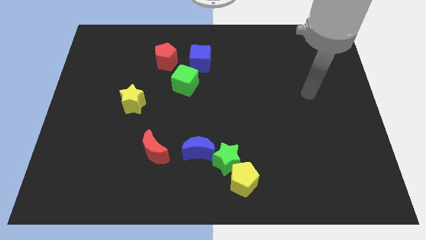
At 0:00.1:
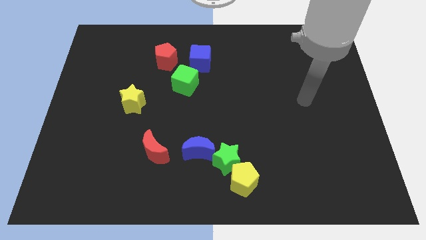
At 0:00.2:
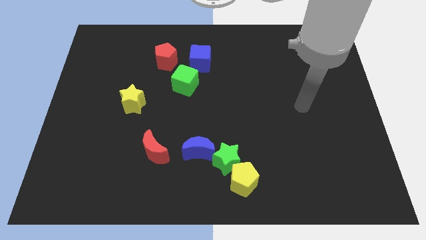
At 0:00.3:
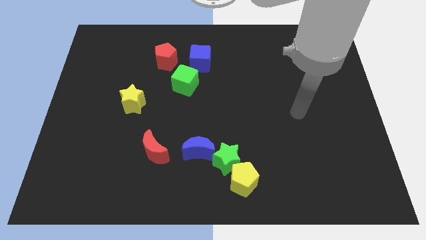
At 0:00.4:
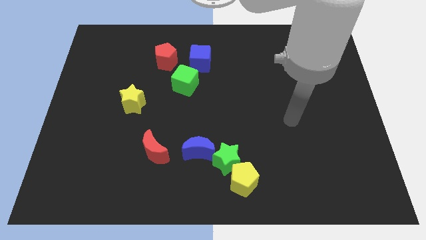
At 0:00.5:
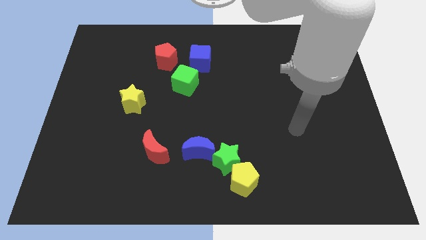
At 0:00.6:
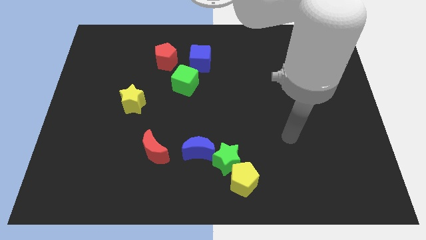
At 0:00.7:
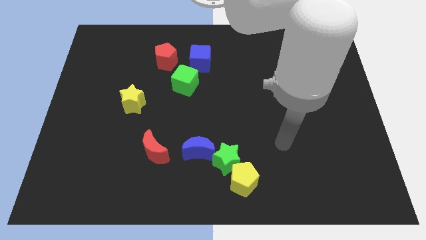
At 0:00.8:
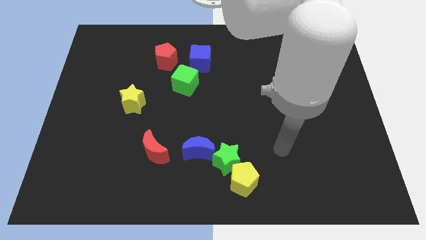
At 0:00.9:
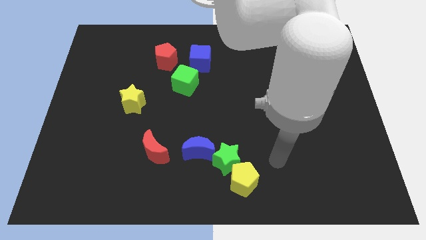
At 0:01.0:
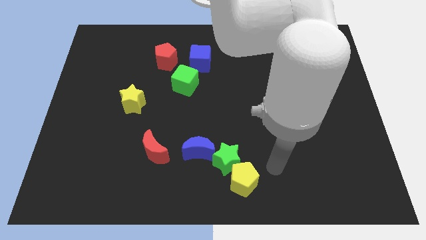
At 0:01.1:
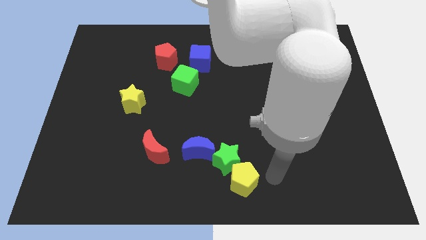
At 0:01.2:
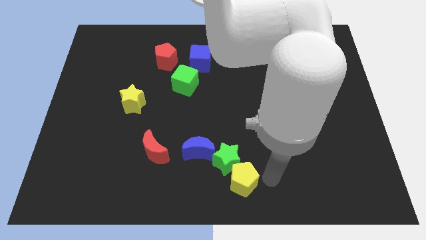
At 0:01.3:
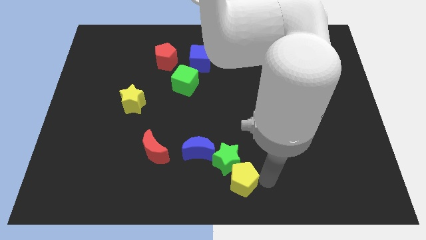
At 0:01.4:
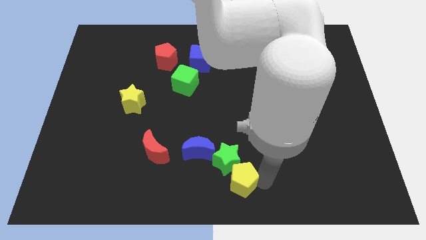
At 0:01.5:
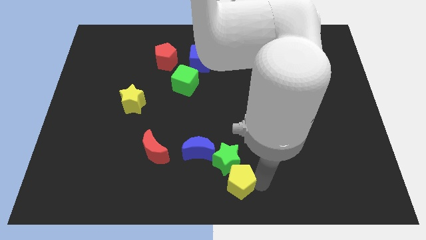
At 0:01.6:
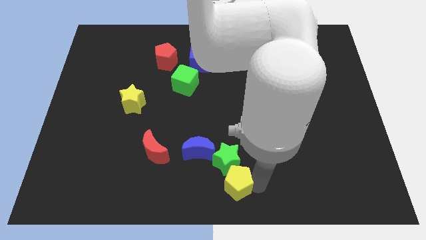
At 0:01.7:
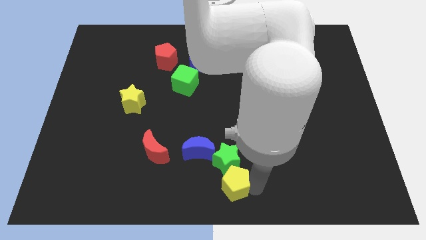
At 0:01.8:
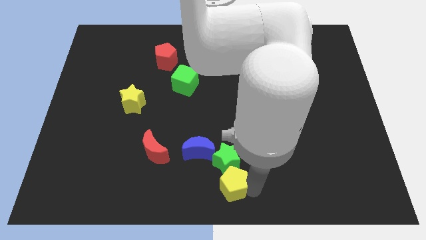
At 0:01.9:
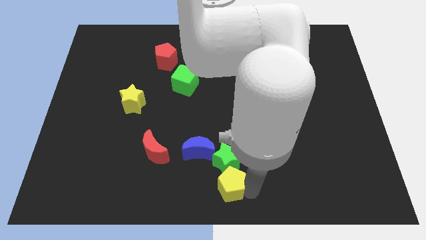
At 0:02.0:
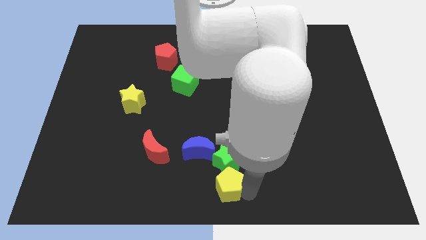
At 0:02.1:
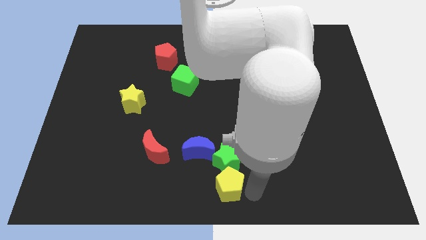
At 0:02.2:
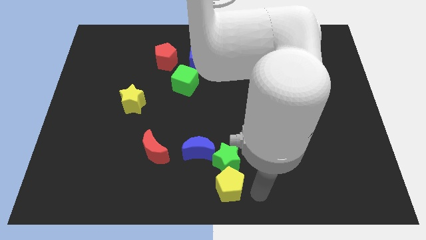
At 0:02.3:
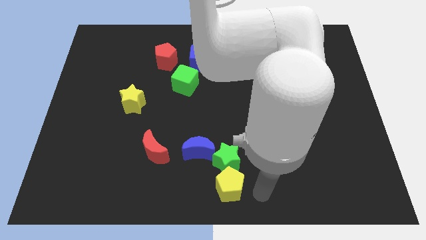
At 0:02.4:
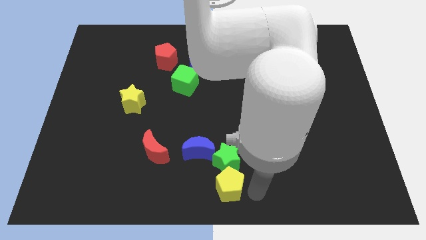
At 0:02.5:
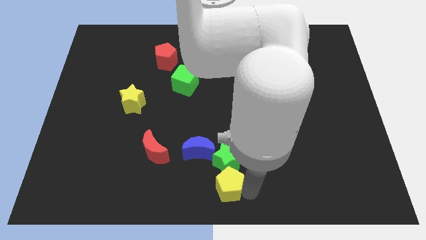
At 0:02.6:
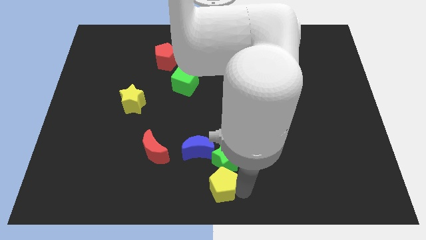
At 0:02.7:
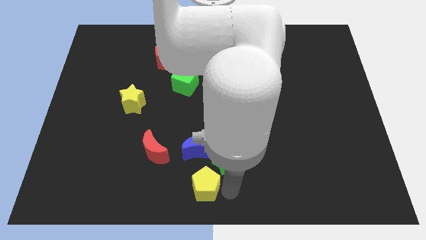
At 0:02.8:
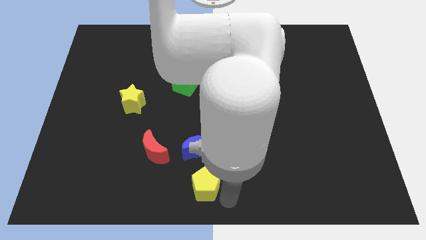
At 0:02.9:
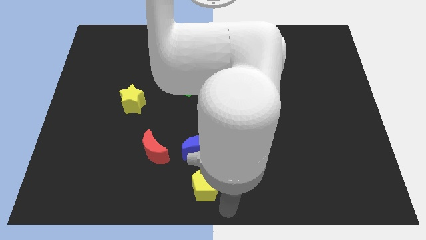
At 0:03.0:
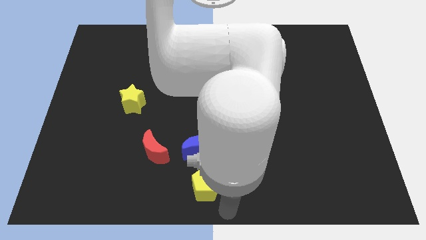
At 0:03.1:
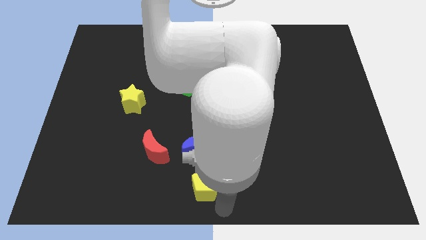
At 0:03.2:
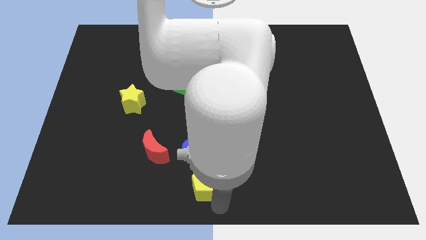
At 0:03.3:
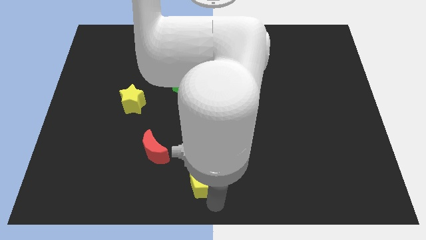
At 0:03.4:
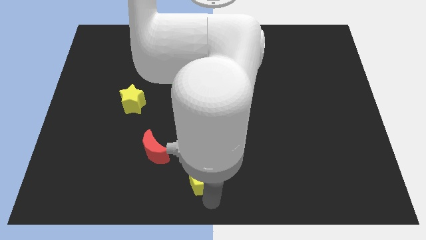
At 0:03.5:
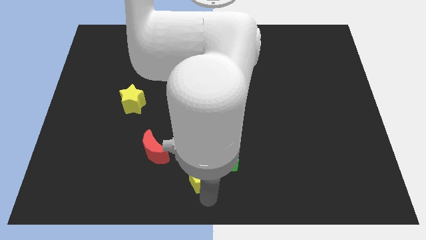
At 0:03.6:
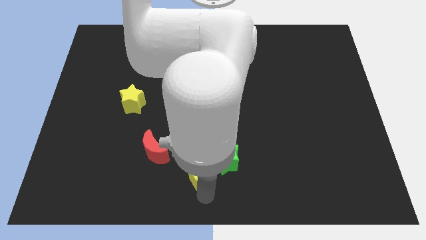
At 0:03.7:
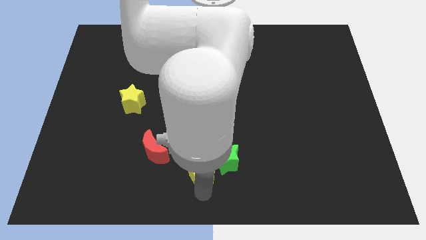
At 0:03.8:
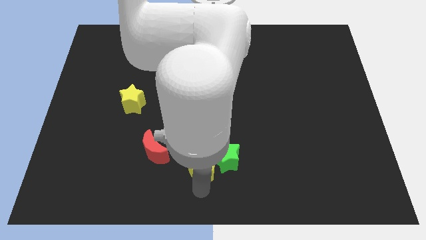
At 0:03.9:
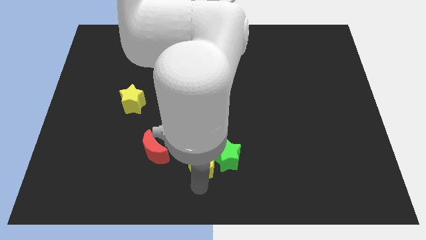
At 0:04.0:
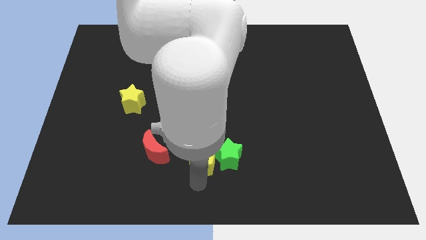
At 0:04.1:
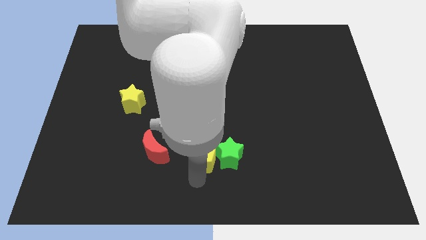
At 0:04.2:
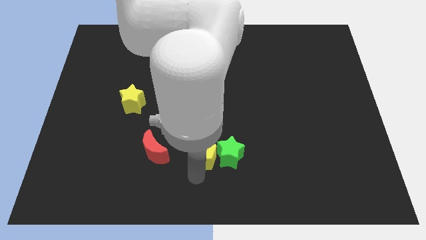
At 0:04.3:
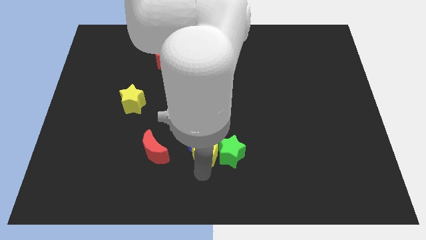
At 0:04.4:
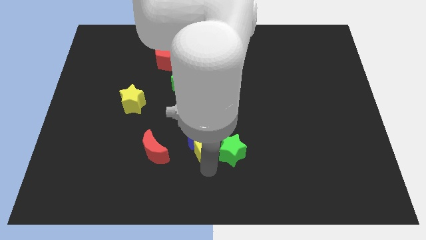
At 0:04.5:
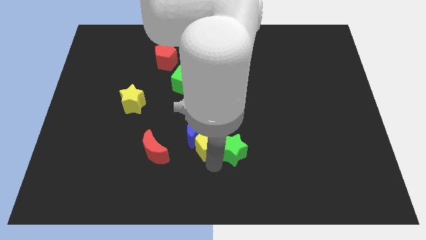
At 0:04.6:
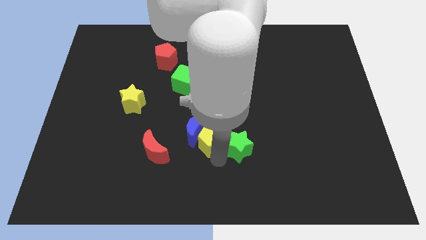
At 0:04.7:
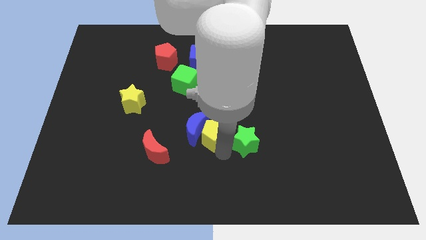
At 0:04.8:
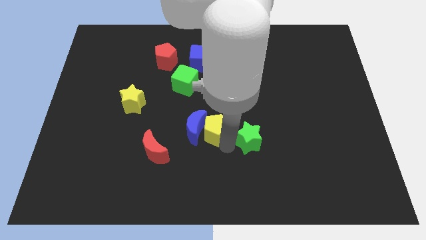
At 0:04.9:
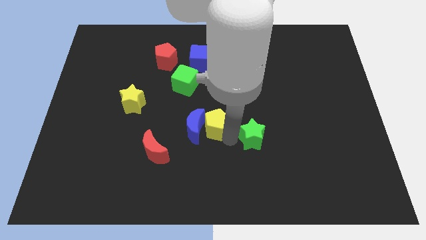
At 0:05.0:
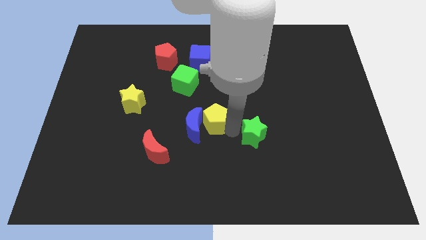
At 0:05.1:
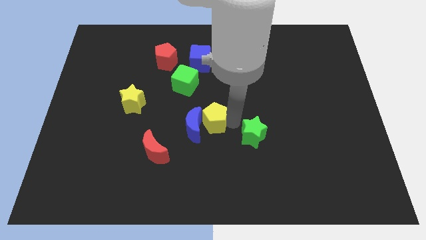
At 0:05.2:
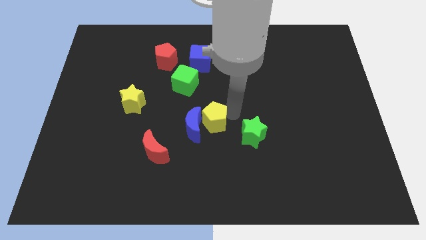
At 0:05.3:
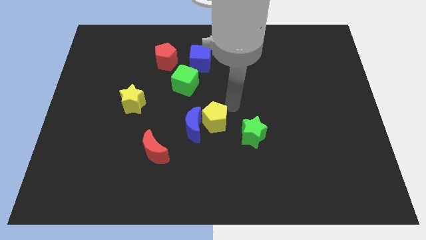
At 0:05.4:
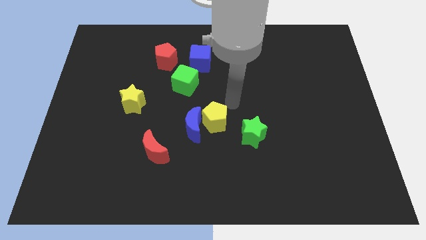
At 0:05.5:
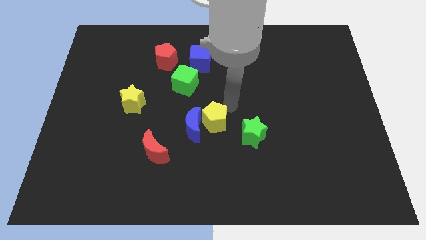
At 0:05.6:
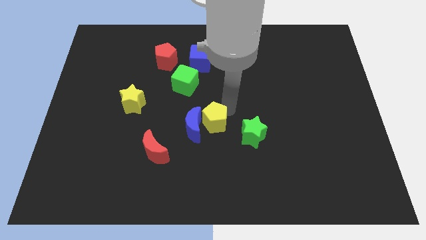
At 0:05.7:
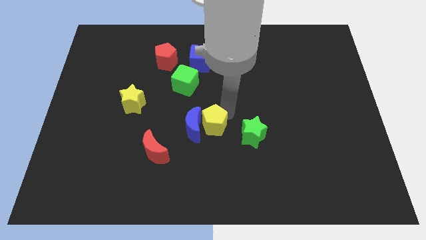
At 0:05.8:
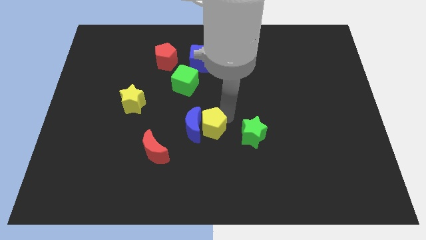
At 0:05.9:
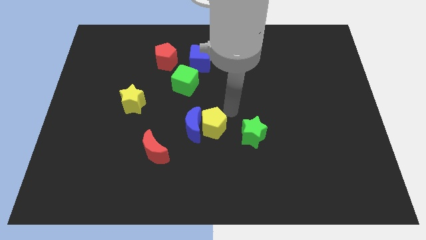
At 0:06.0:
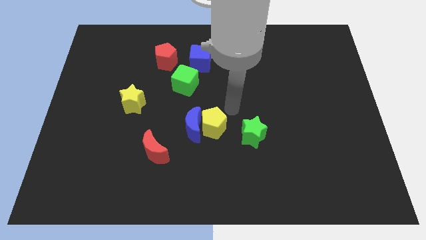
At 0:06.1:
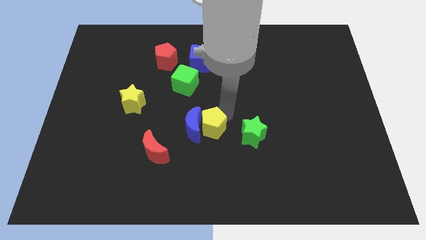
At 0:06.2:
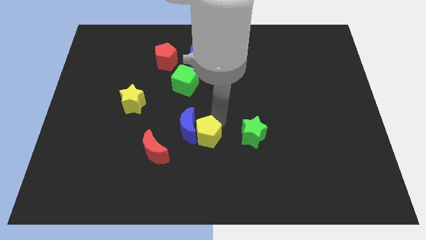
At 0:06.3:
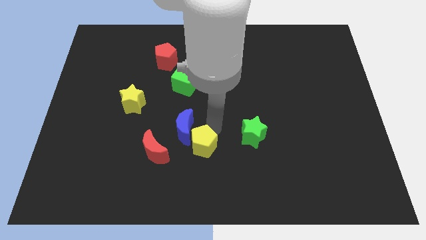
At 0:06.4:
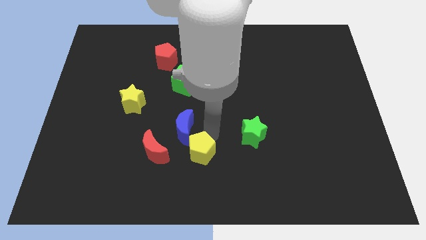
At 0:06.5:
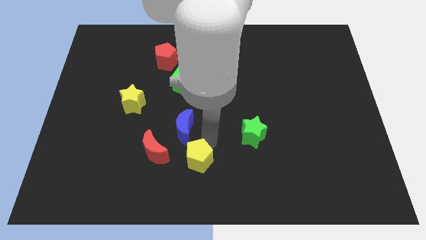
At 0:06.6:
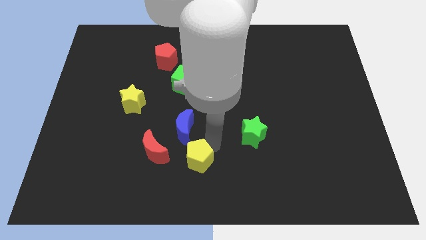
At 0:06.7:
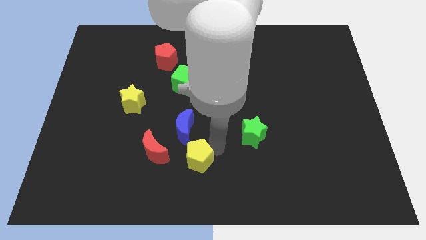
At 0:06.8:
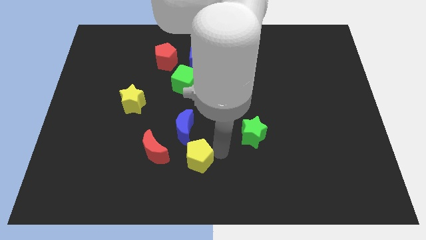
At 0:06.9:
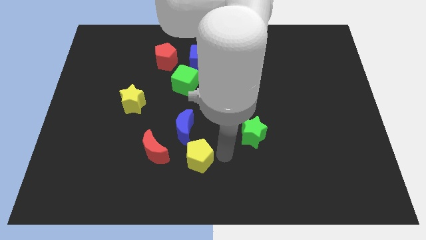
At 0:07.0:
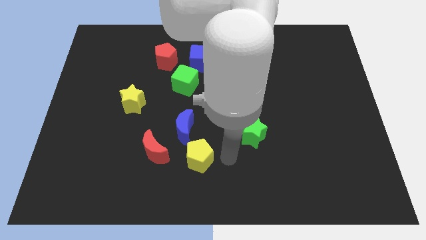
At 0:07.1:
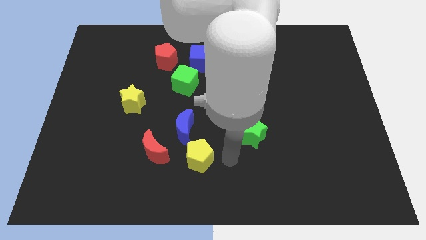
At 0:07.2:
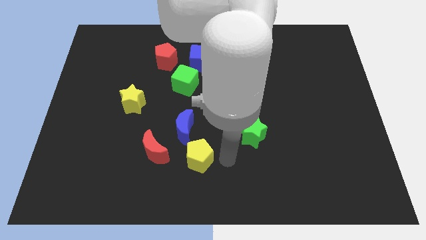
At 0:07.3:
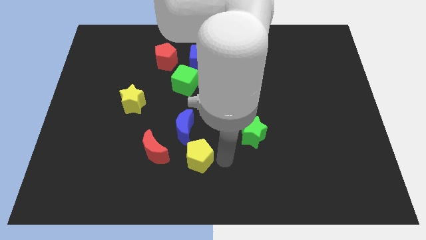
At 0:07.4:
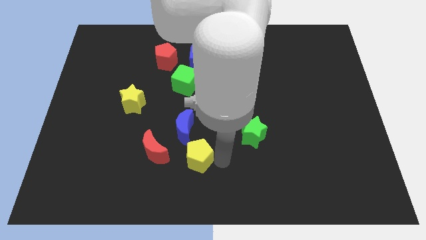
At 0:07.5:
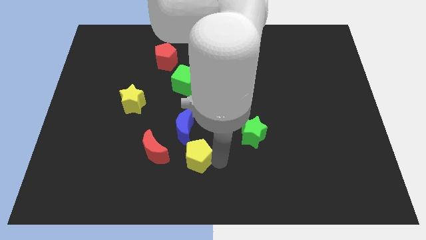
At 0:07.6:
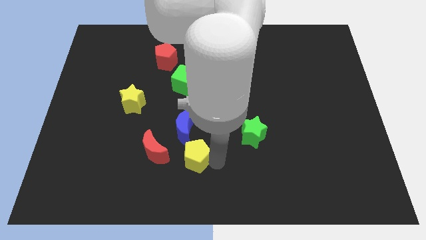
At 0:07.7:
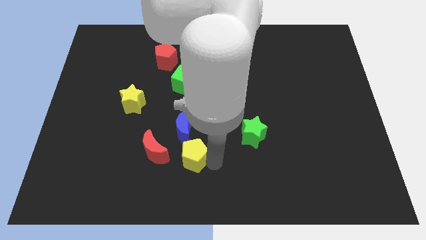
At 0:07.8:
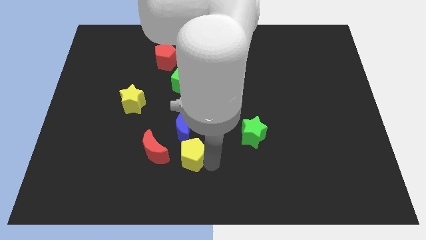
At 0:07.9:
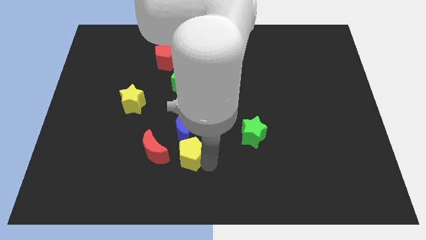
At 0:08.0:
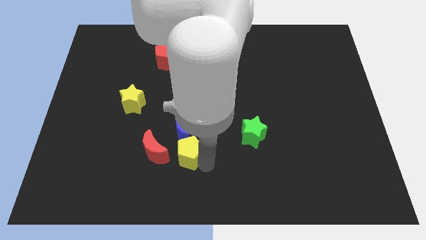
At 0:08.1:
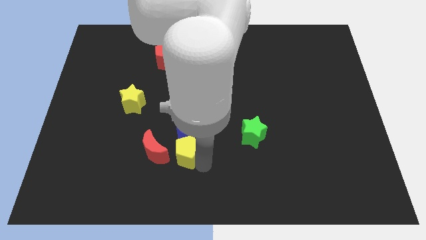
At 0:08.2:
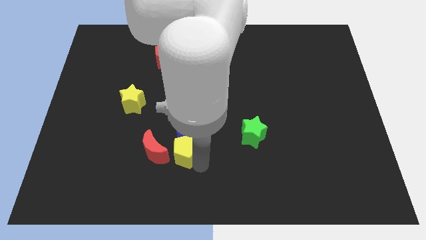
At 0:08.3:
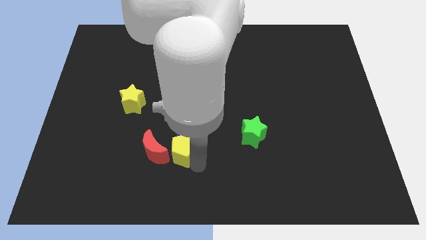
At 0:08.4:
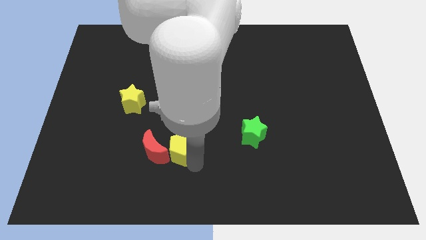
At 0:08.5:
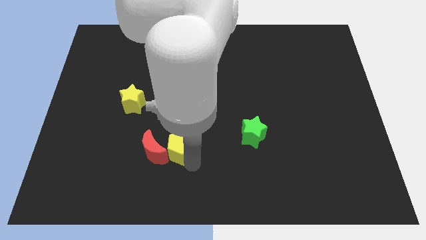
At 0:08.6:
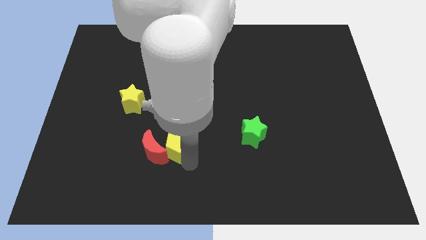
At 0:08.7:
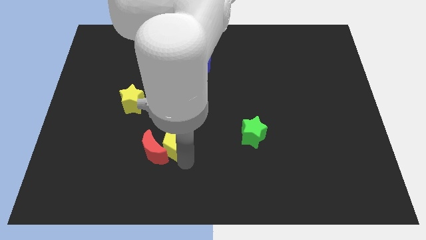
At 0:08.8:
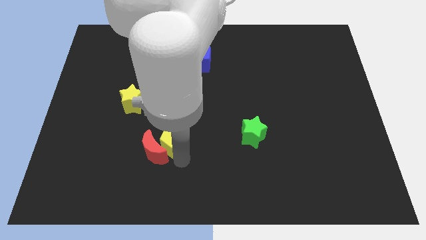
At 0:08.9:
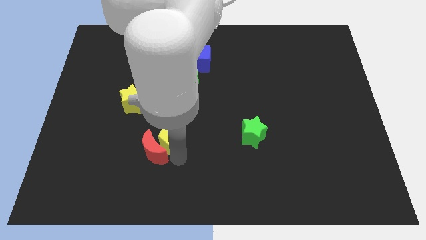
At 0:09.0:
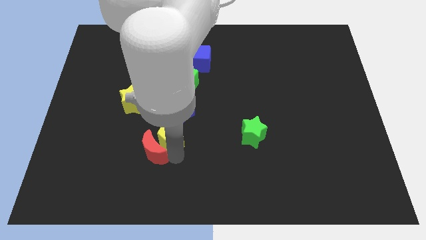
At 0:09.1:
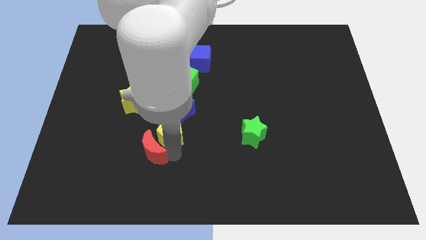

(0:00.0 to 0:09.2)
slide the yellow pentagon to the bottom side of the green cube
